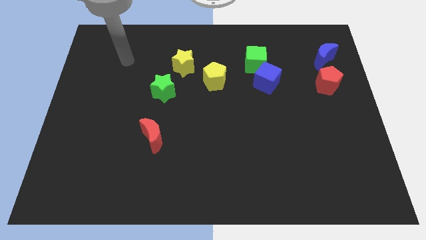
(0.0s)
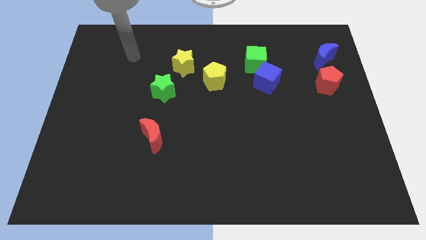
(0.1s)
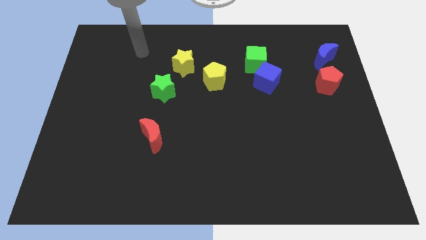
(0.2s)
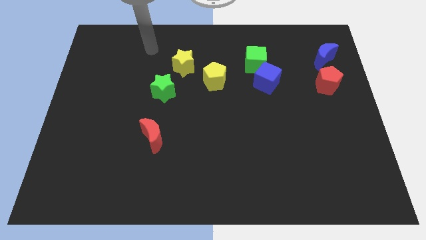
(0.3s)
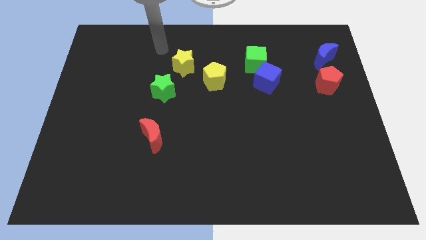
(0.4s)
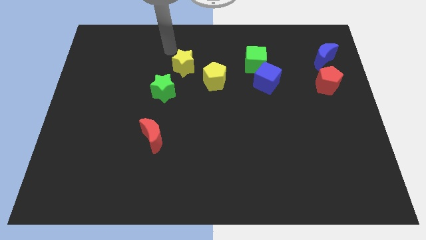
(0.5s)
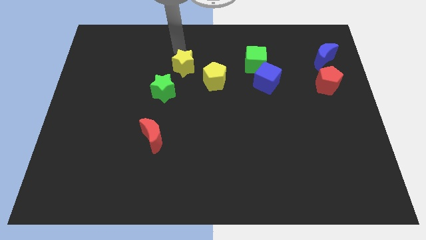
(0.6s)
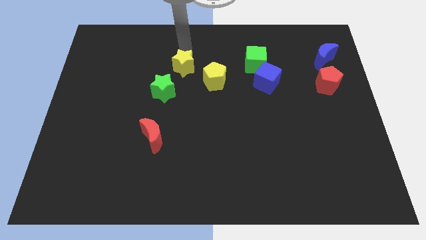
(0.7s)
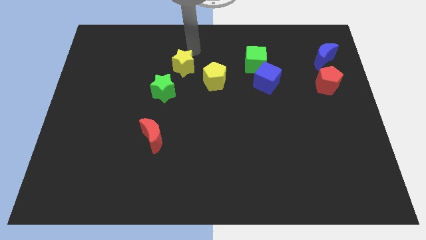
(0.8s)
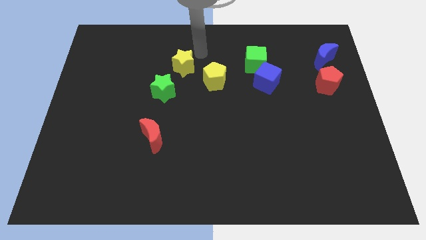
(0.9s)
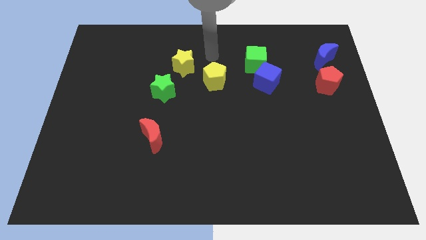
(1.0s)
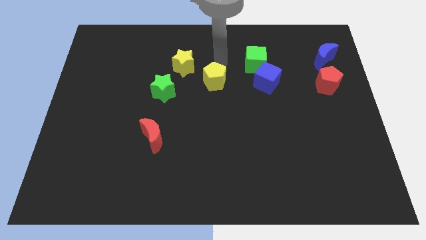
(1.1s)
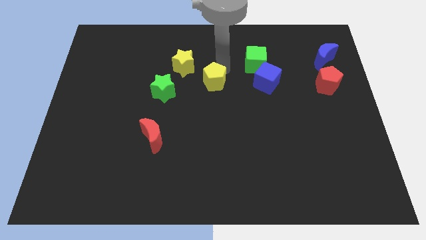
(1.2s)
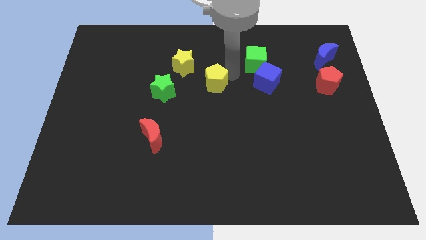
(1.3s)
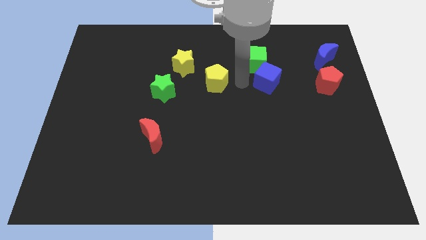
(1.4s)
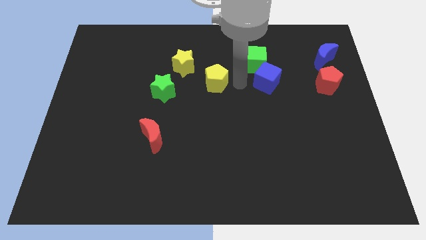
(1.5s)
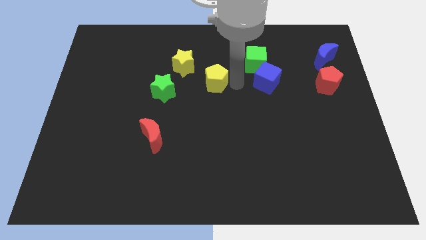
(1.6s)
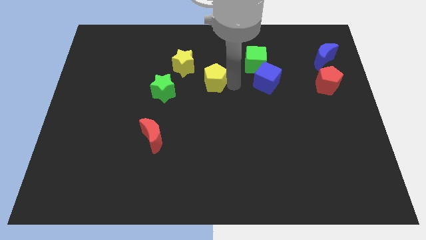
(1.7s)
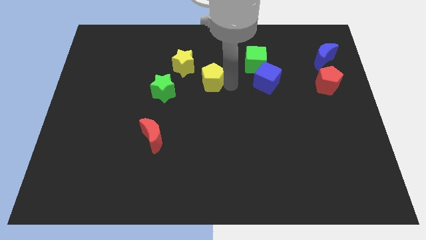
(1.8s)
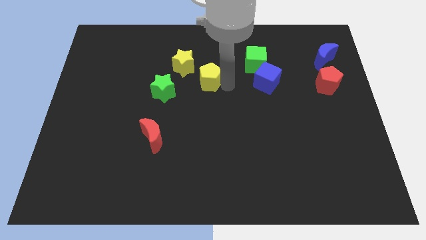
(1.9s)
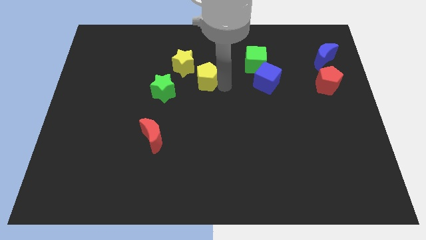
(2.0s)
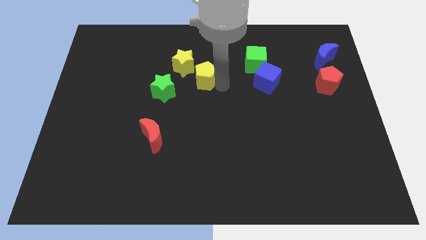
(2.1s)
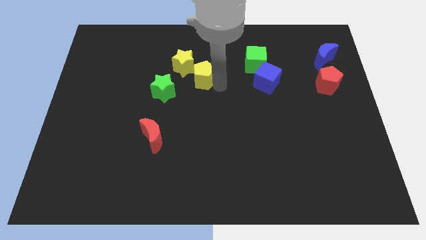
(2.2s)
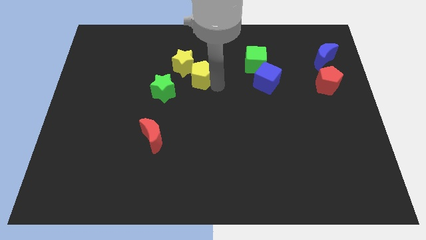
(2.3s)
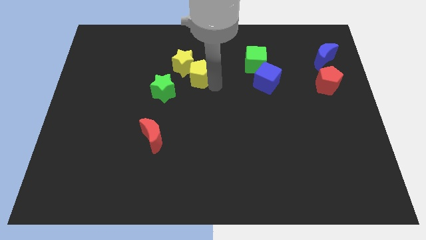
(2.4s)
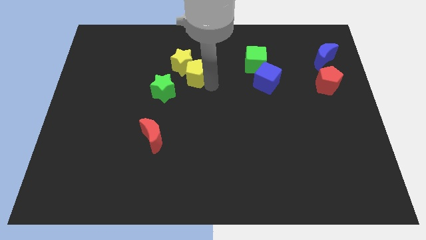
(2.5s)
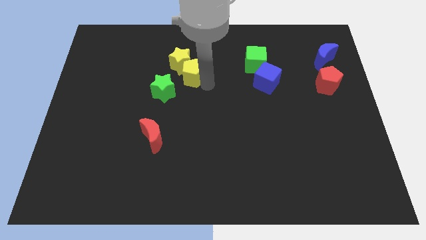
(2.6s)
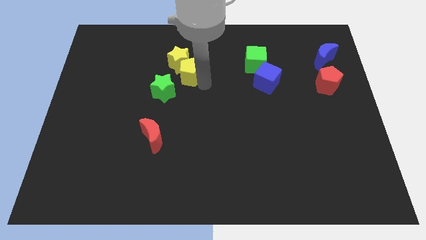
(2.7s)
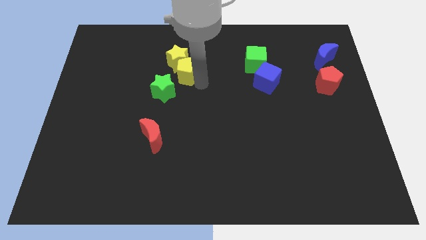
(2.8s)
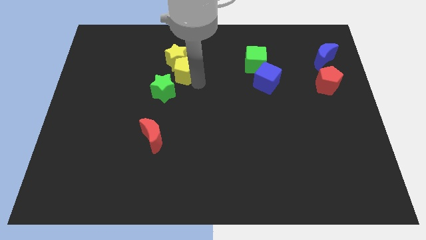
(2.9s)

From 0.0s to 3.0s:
slightly slide the yellow pentagon to the left

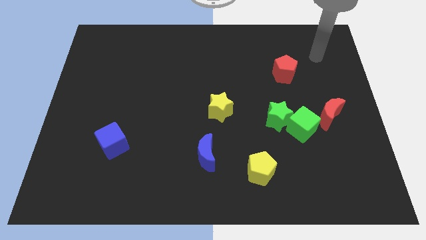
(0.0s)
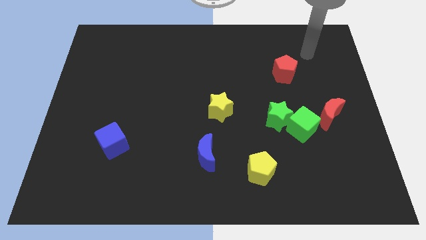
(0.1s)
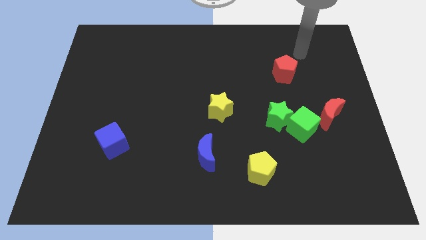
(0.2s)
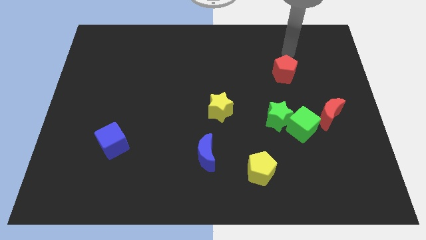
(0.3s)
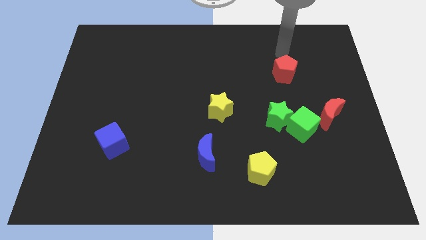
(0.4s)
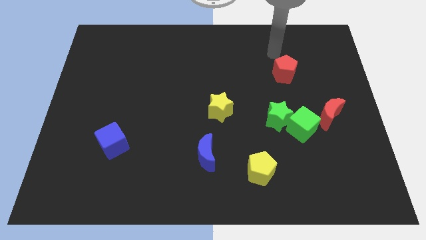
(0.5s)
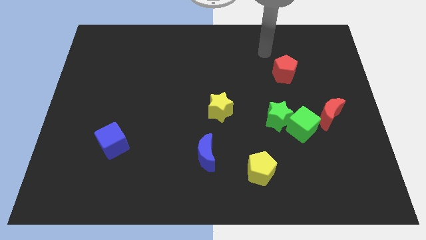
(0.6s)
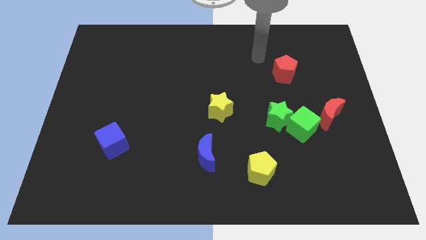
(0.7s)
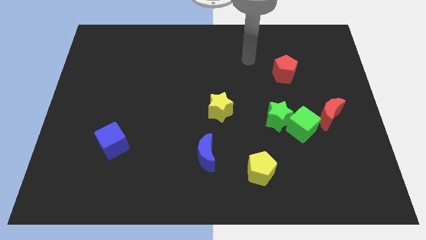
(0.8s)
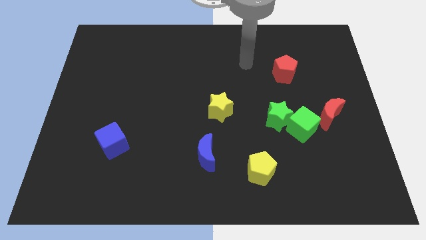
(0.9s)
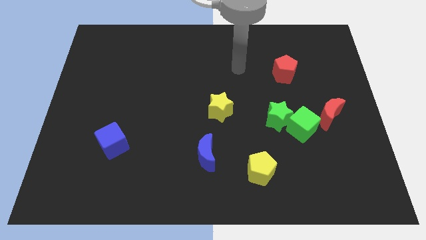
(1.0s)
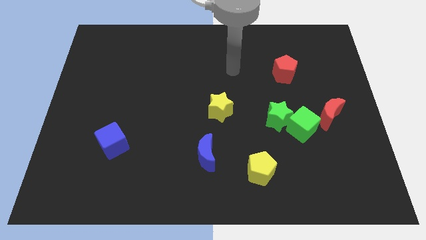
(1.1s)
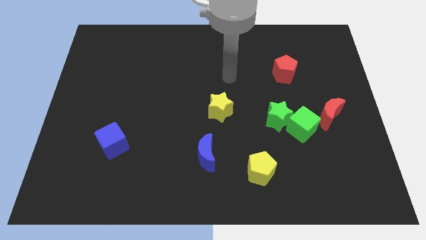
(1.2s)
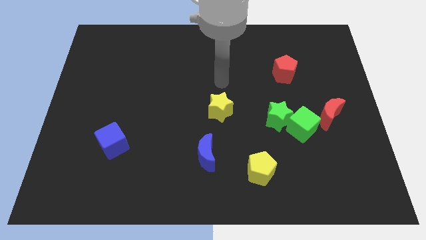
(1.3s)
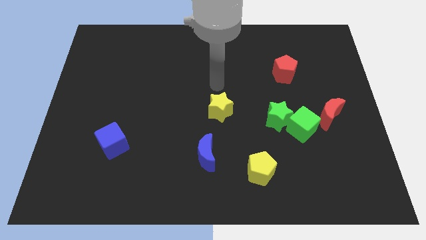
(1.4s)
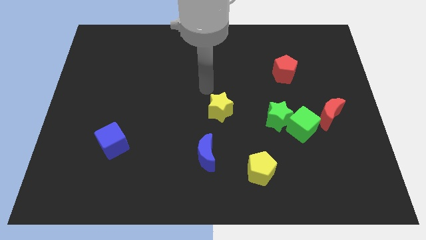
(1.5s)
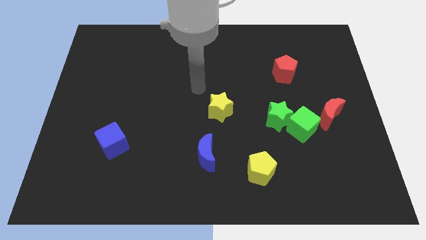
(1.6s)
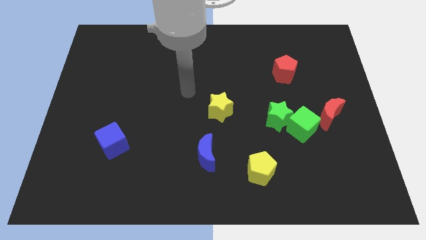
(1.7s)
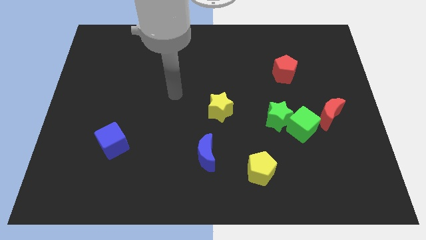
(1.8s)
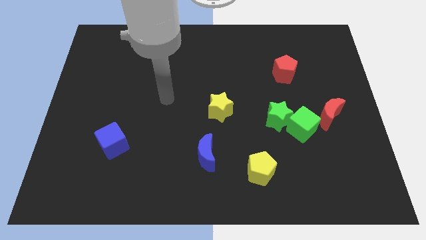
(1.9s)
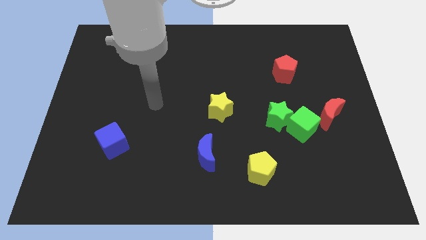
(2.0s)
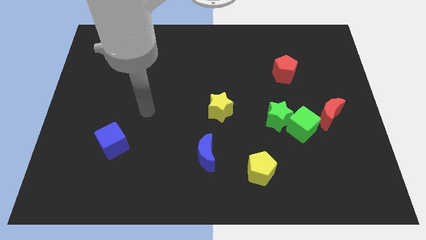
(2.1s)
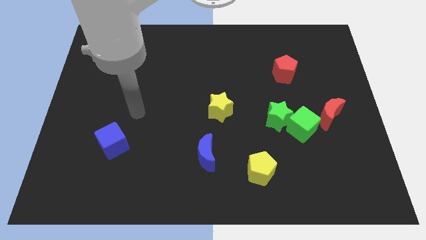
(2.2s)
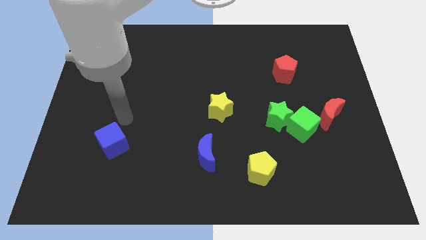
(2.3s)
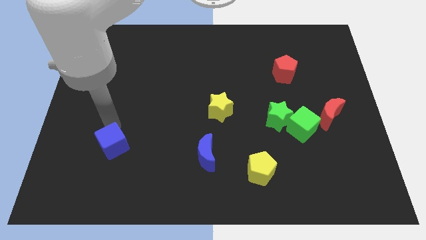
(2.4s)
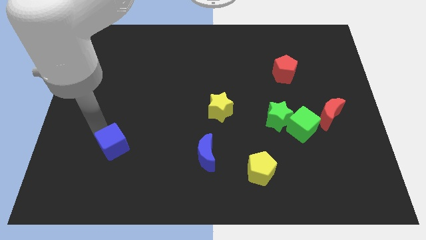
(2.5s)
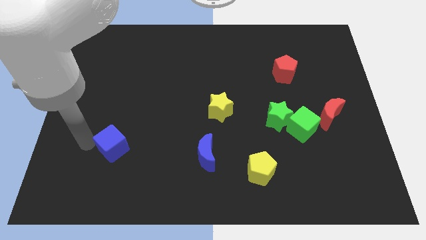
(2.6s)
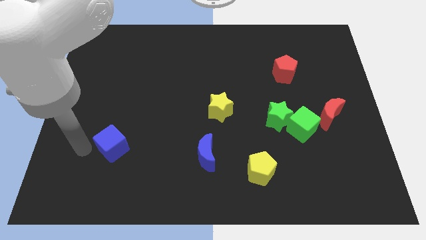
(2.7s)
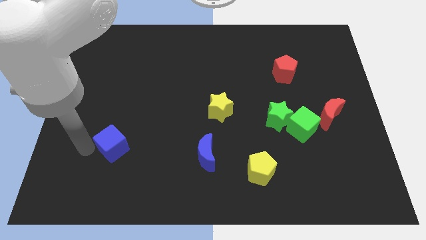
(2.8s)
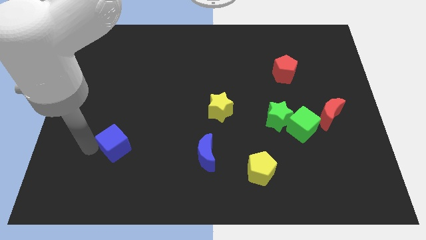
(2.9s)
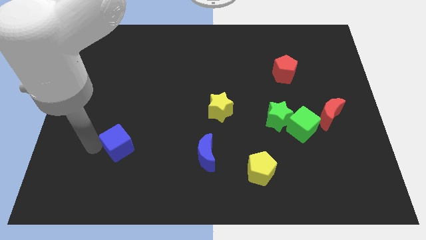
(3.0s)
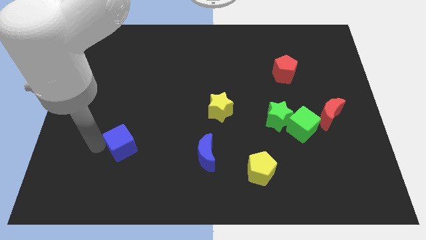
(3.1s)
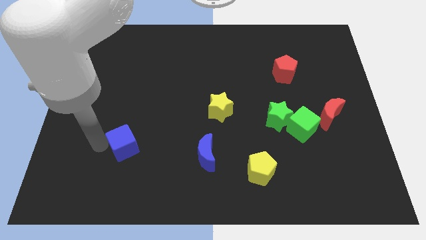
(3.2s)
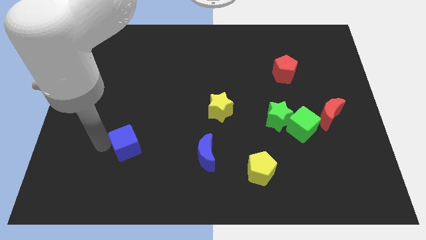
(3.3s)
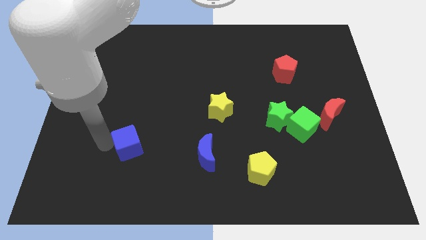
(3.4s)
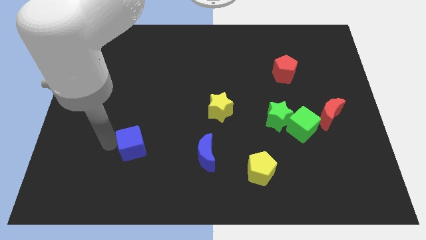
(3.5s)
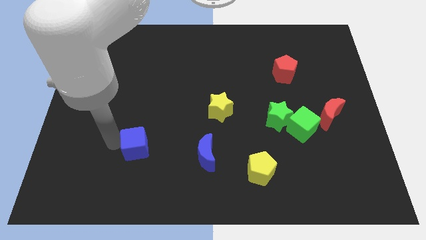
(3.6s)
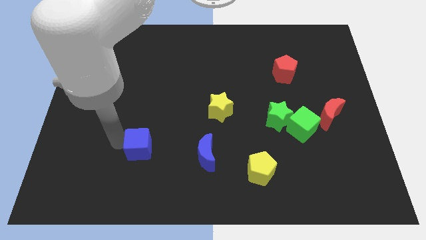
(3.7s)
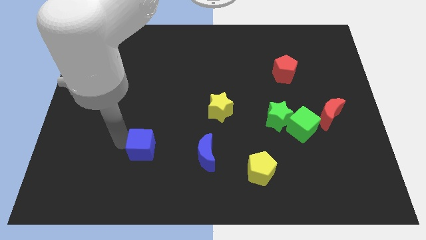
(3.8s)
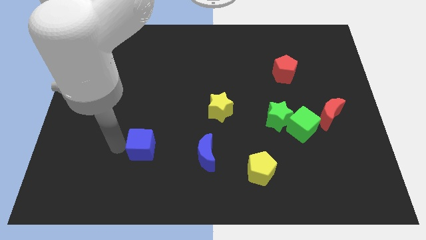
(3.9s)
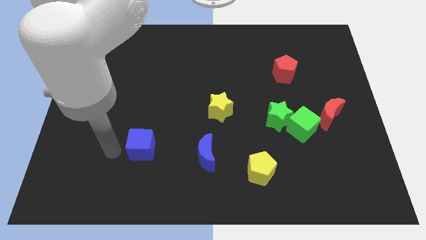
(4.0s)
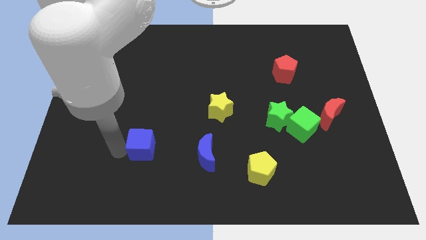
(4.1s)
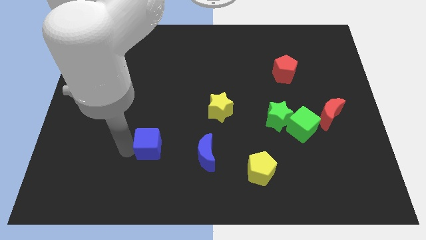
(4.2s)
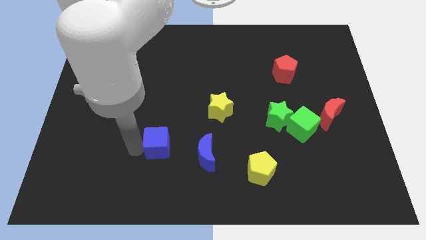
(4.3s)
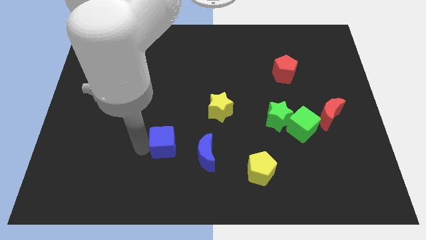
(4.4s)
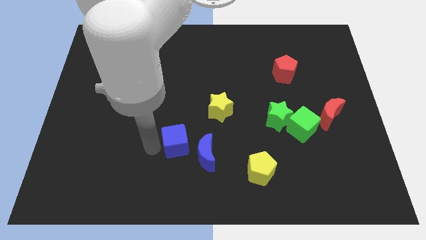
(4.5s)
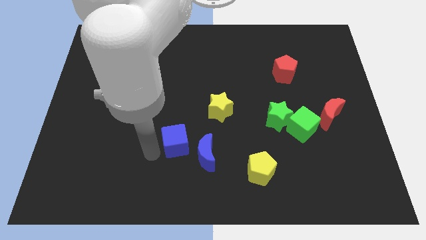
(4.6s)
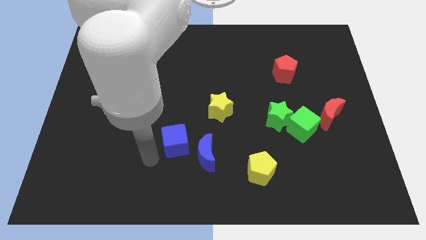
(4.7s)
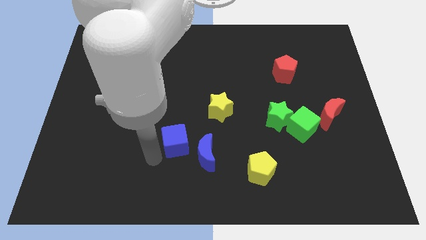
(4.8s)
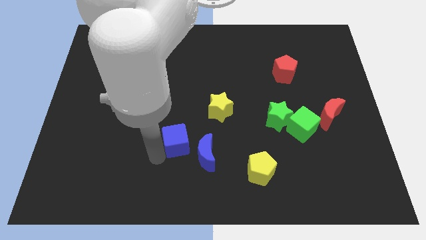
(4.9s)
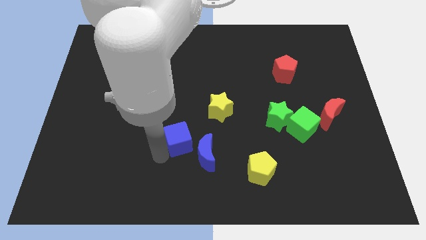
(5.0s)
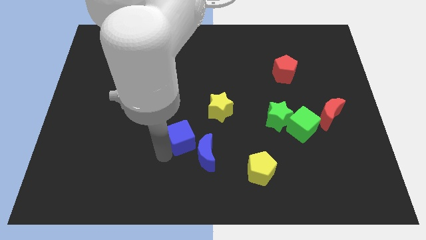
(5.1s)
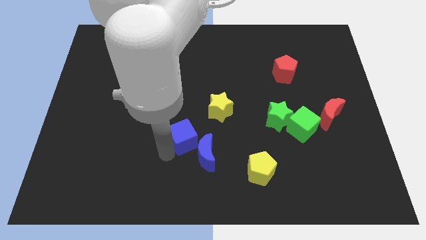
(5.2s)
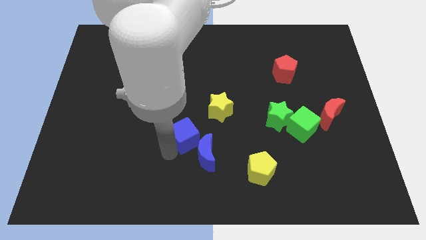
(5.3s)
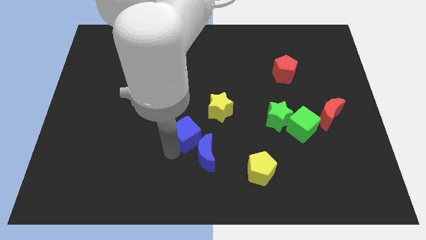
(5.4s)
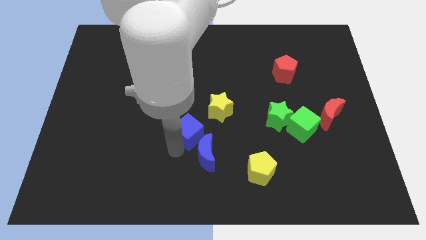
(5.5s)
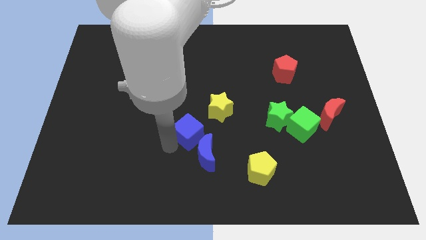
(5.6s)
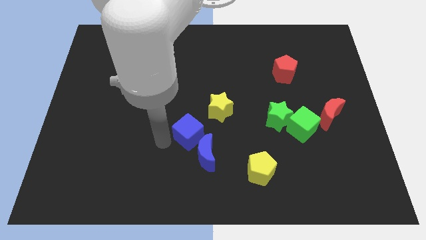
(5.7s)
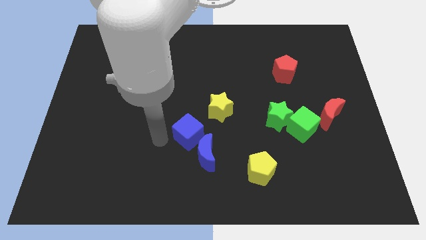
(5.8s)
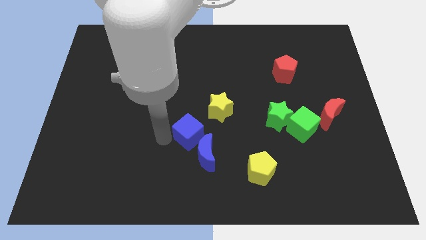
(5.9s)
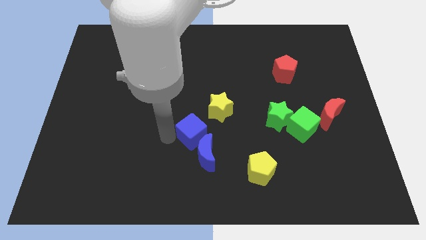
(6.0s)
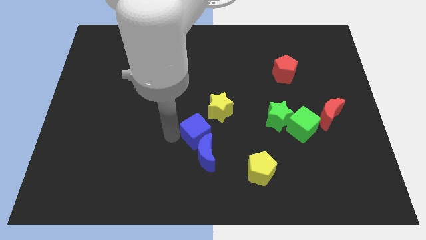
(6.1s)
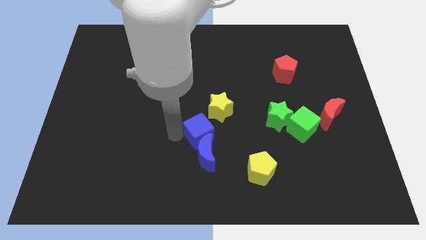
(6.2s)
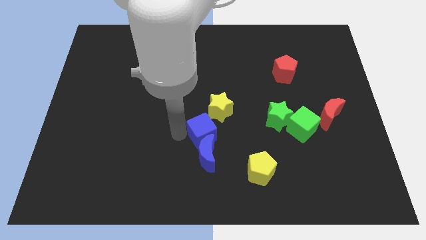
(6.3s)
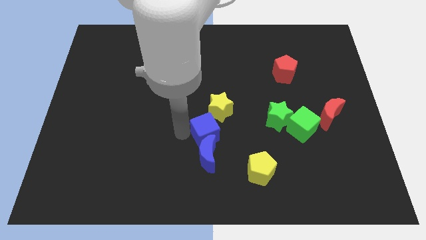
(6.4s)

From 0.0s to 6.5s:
push the blue cube right
